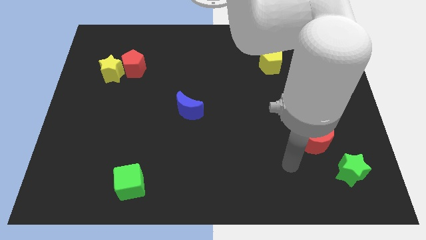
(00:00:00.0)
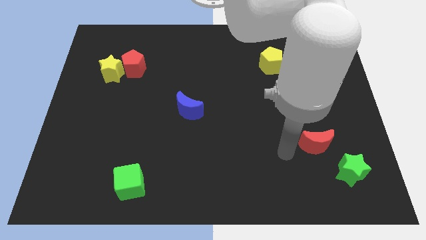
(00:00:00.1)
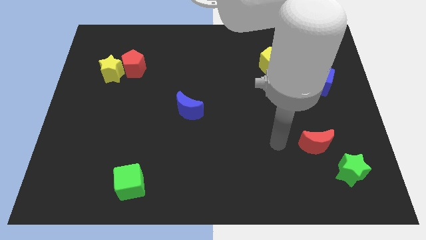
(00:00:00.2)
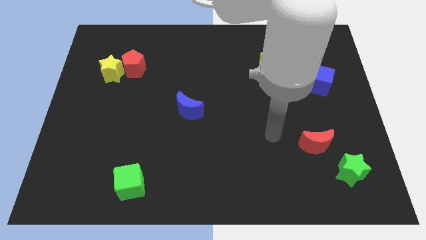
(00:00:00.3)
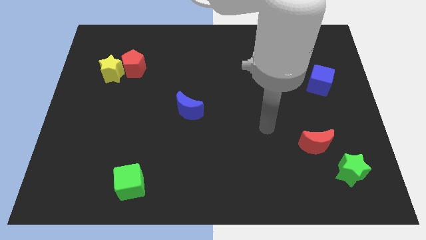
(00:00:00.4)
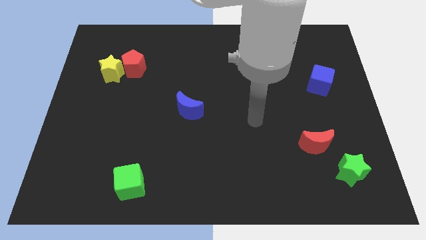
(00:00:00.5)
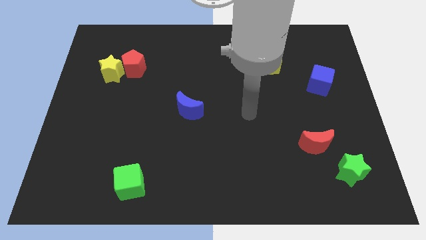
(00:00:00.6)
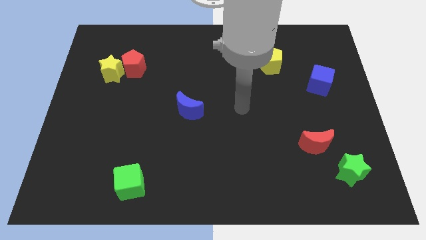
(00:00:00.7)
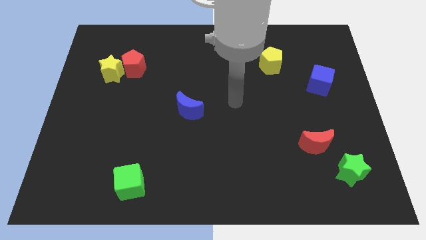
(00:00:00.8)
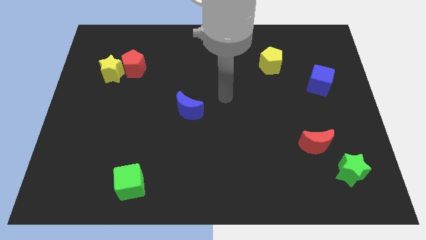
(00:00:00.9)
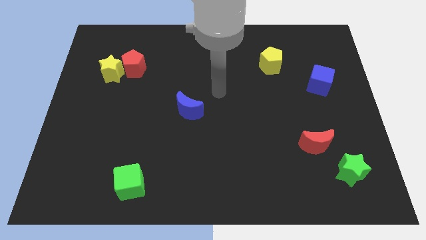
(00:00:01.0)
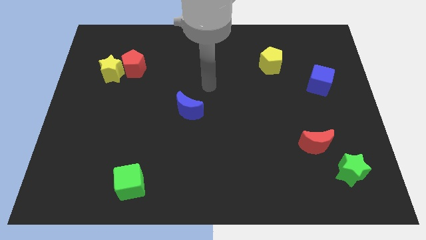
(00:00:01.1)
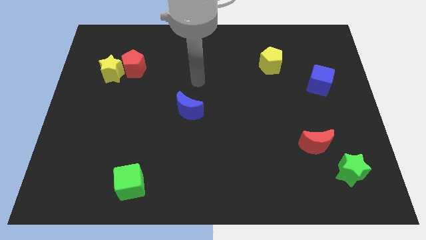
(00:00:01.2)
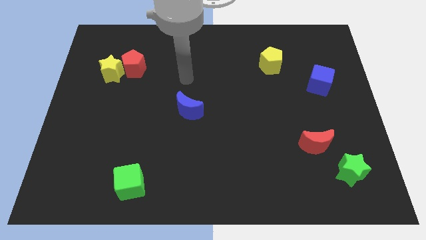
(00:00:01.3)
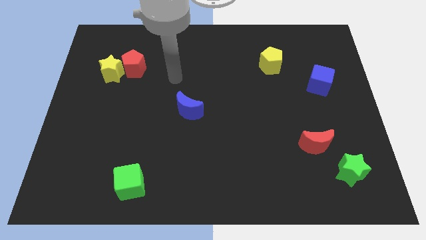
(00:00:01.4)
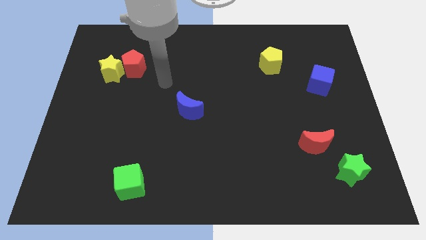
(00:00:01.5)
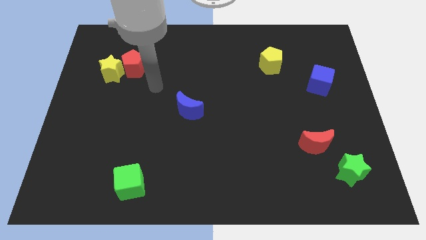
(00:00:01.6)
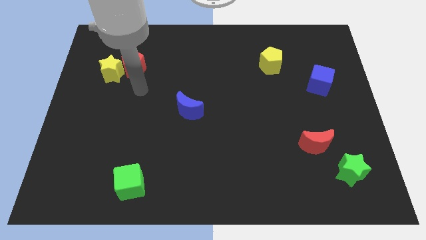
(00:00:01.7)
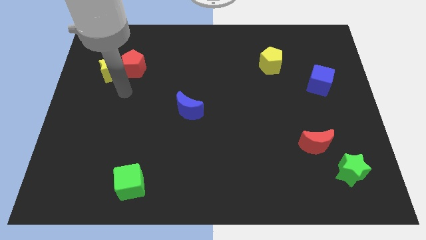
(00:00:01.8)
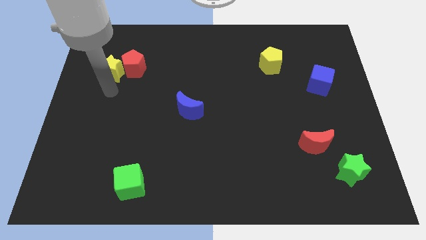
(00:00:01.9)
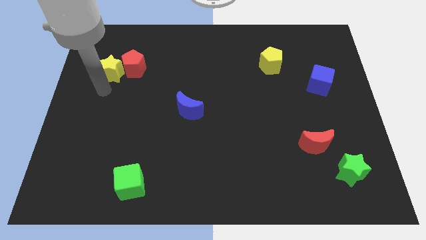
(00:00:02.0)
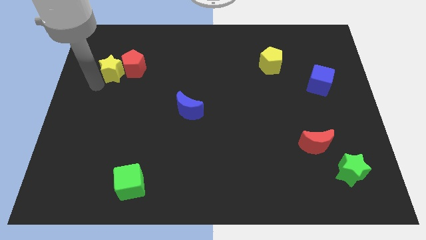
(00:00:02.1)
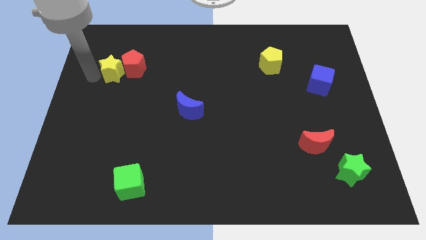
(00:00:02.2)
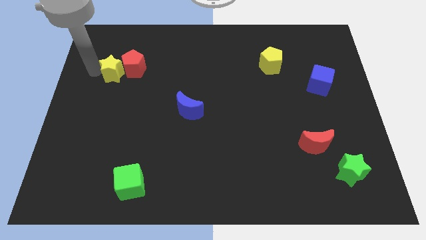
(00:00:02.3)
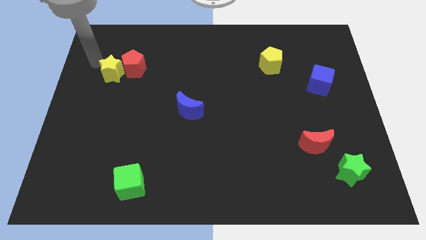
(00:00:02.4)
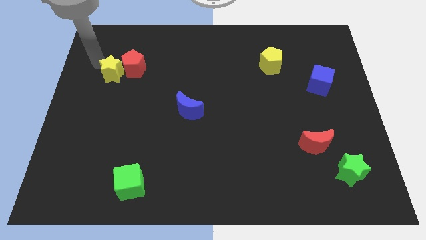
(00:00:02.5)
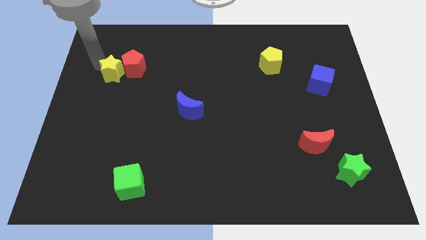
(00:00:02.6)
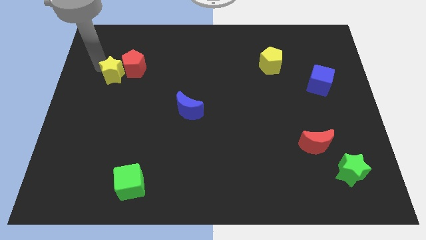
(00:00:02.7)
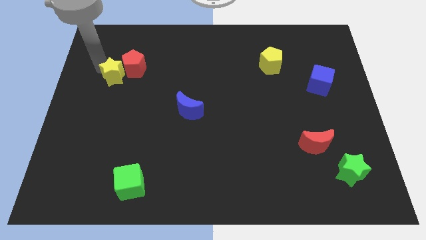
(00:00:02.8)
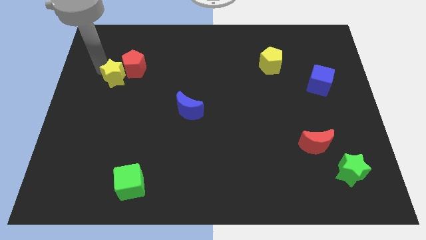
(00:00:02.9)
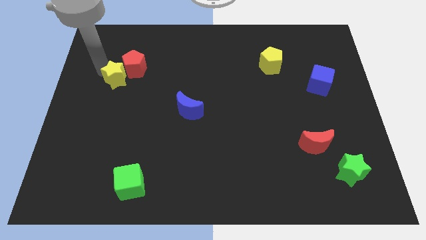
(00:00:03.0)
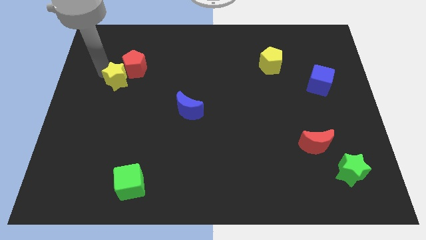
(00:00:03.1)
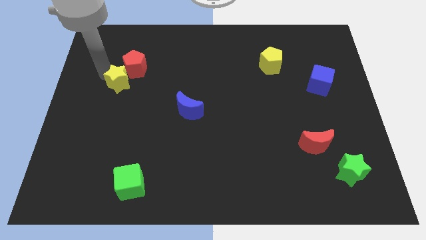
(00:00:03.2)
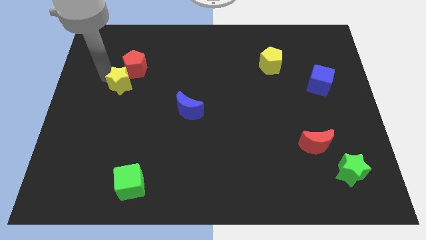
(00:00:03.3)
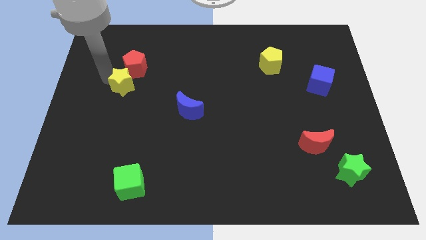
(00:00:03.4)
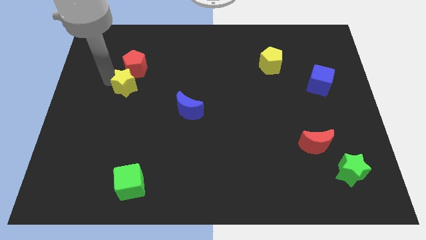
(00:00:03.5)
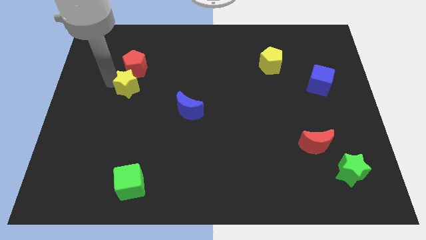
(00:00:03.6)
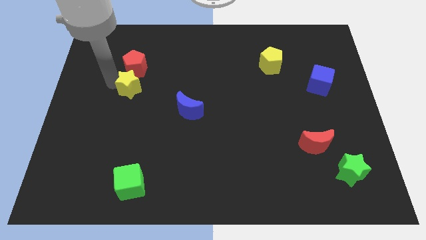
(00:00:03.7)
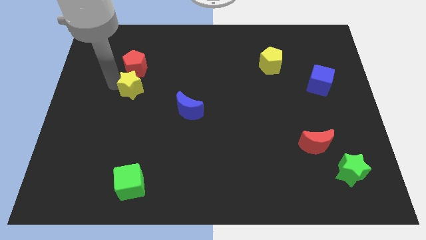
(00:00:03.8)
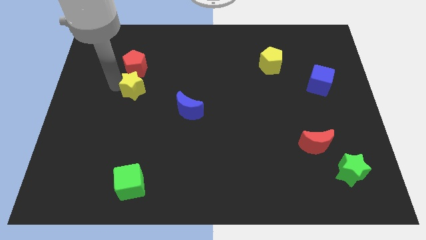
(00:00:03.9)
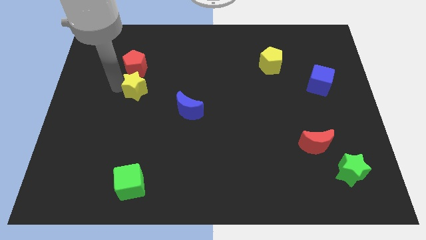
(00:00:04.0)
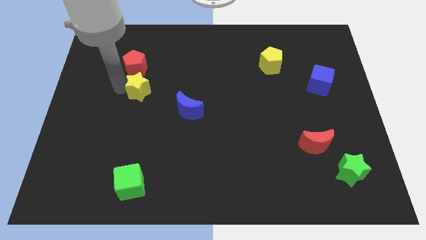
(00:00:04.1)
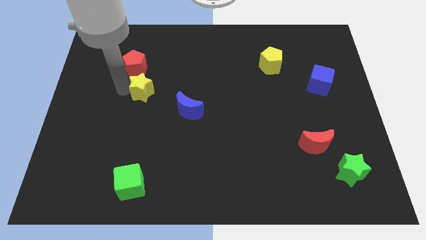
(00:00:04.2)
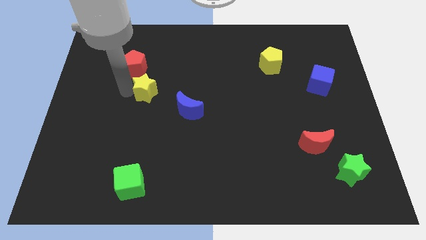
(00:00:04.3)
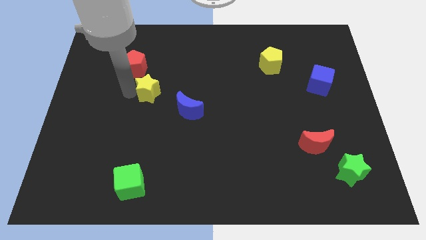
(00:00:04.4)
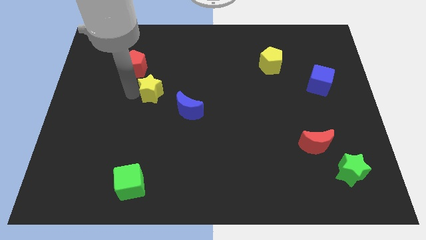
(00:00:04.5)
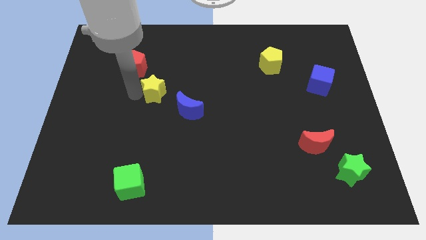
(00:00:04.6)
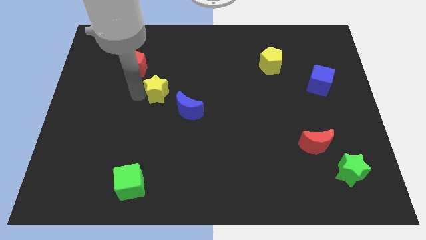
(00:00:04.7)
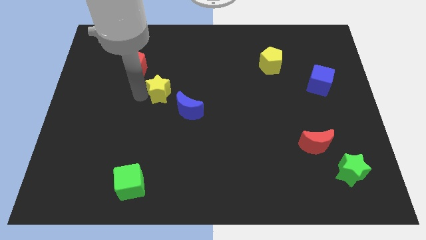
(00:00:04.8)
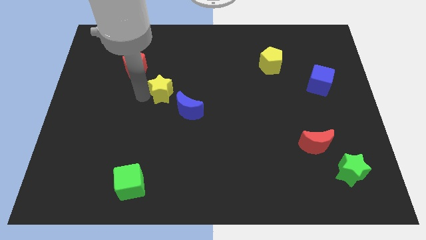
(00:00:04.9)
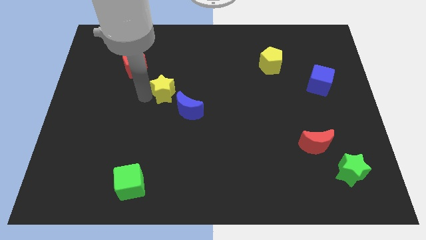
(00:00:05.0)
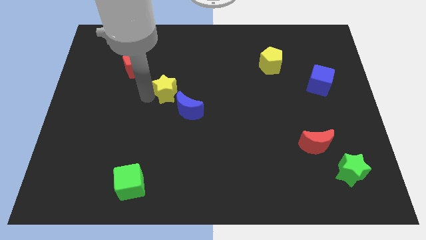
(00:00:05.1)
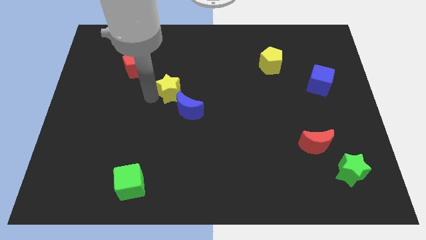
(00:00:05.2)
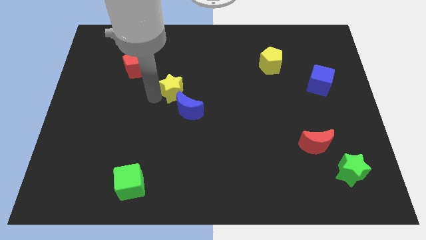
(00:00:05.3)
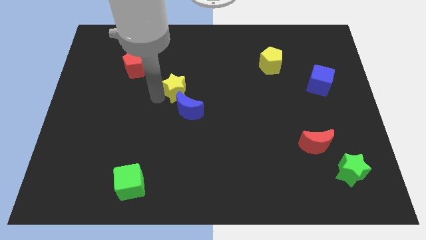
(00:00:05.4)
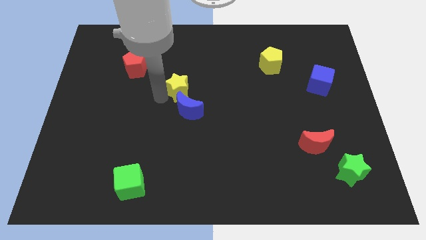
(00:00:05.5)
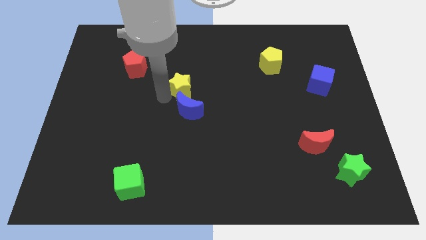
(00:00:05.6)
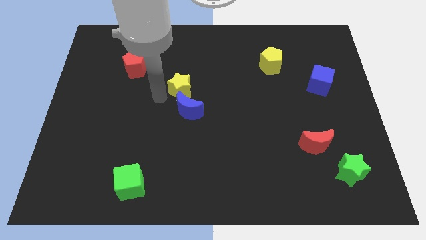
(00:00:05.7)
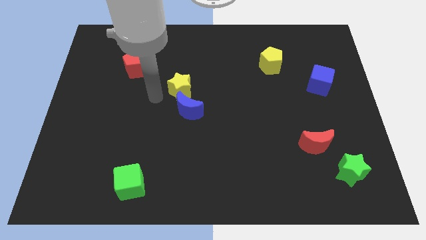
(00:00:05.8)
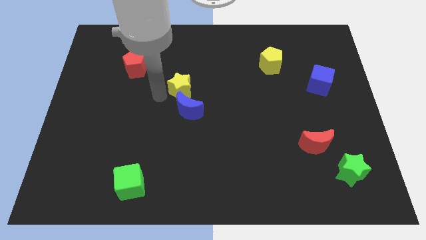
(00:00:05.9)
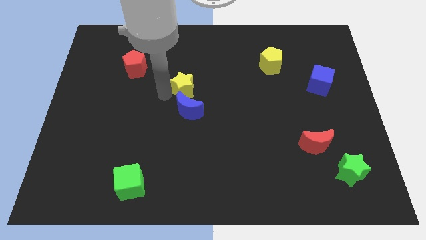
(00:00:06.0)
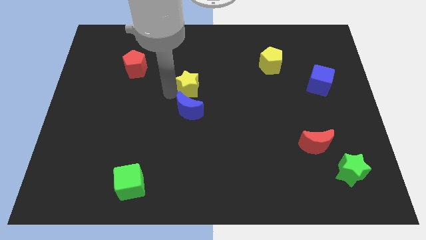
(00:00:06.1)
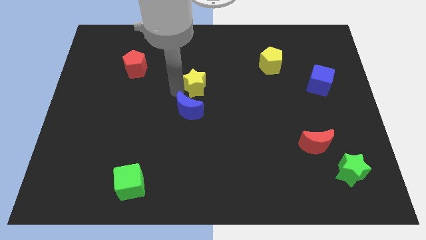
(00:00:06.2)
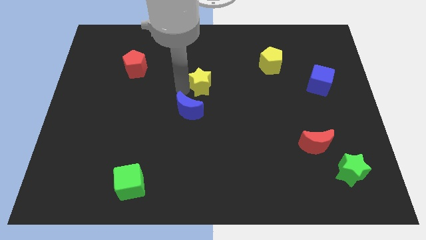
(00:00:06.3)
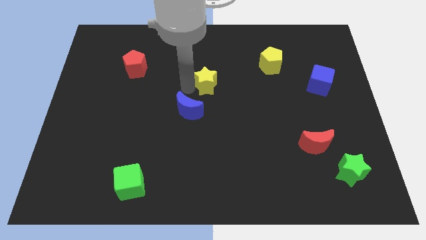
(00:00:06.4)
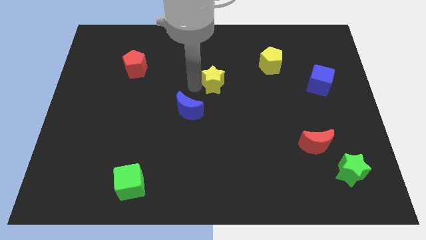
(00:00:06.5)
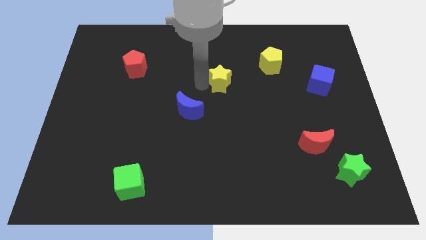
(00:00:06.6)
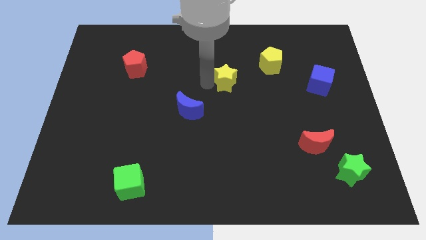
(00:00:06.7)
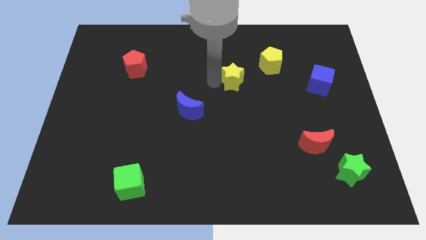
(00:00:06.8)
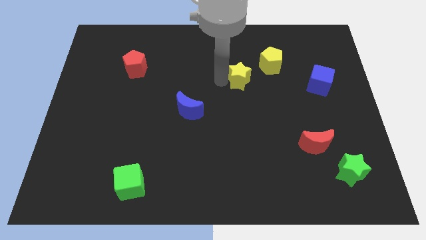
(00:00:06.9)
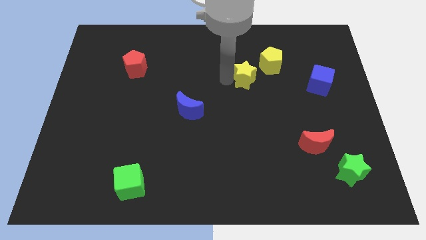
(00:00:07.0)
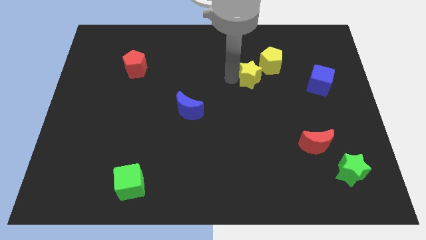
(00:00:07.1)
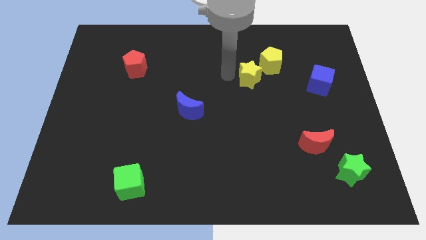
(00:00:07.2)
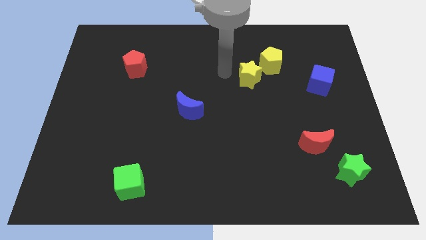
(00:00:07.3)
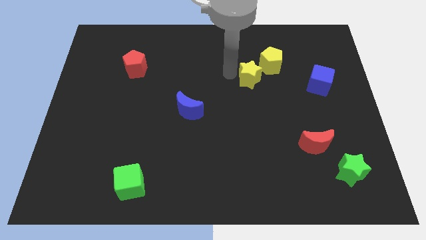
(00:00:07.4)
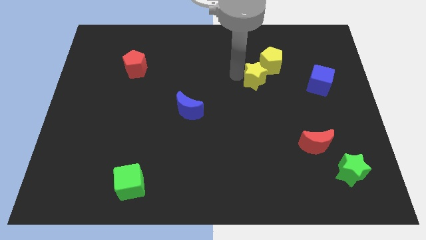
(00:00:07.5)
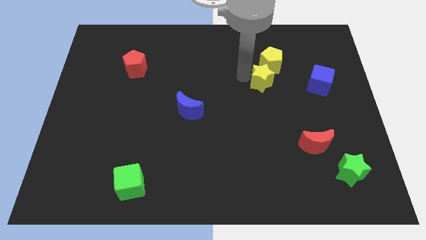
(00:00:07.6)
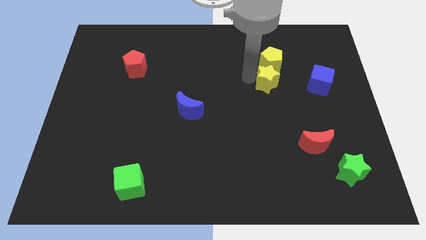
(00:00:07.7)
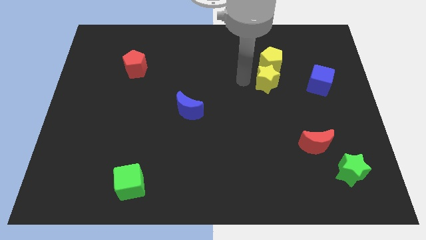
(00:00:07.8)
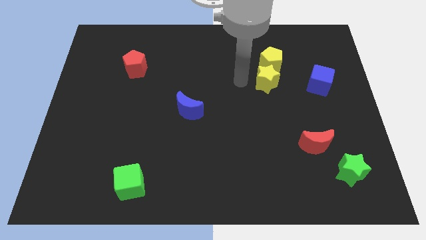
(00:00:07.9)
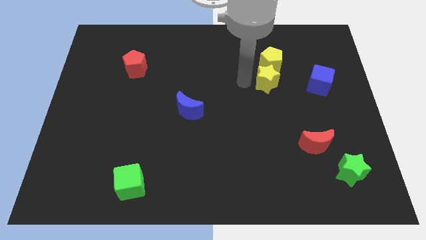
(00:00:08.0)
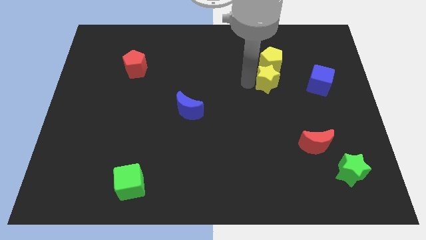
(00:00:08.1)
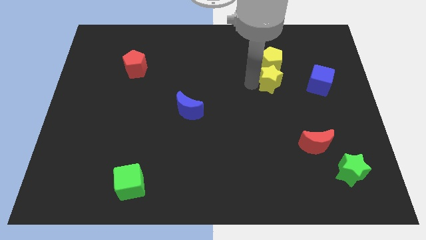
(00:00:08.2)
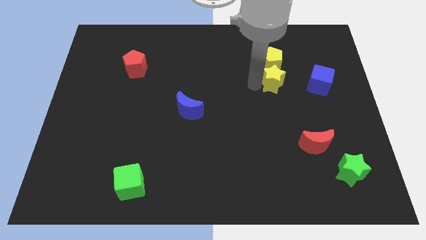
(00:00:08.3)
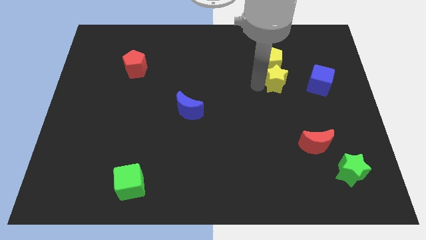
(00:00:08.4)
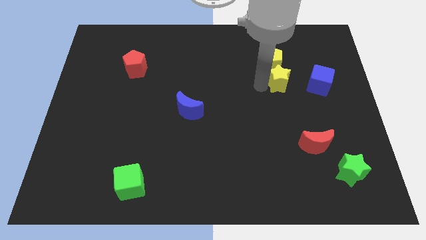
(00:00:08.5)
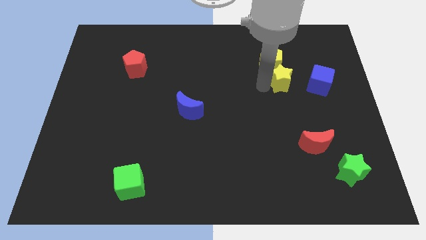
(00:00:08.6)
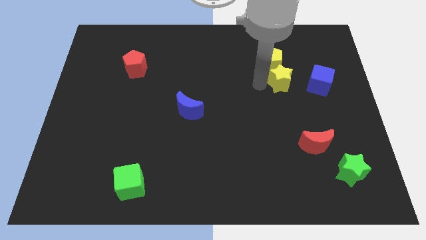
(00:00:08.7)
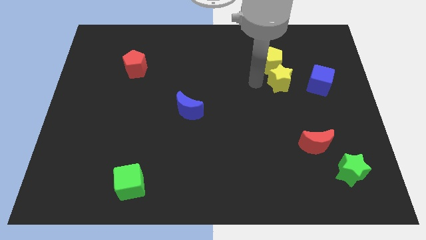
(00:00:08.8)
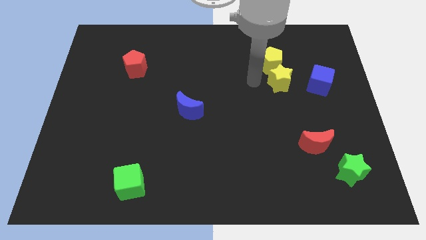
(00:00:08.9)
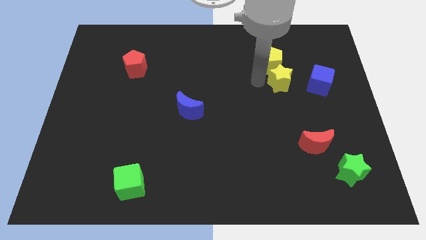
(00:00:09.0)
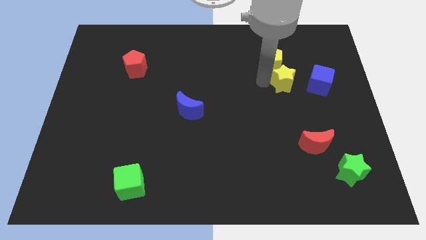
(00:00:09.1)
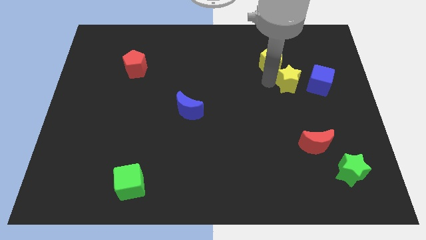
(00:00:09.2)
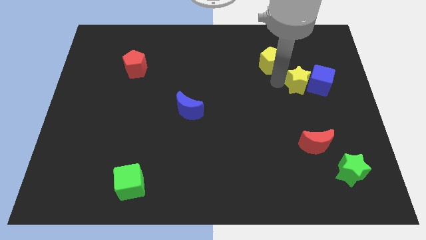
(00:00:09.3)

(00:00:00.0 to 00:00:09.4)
put the yellow star close to the blue cube
